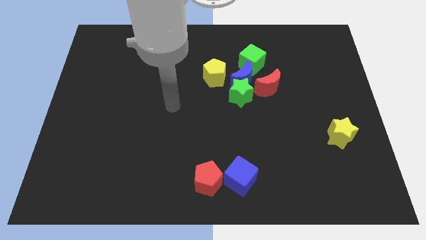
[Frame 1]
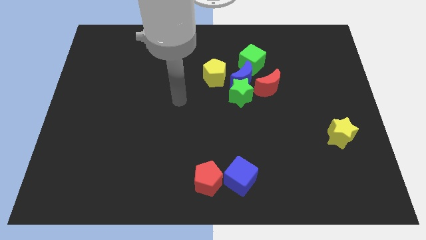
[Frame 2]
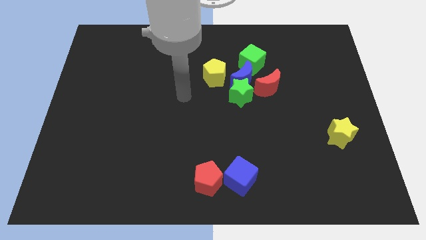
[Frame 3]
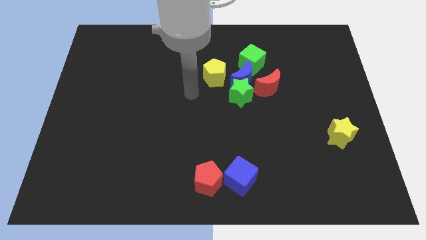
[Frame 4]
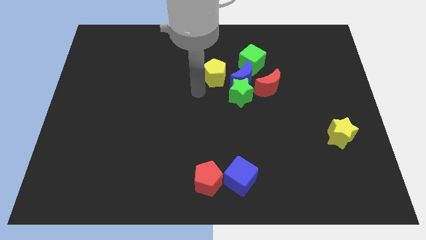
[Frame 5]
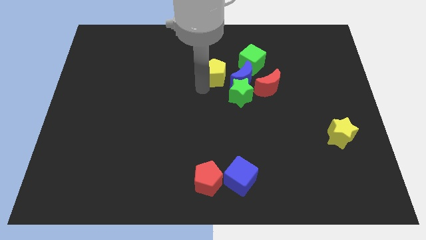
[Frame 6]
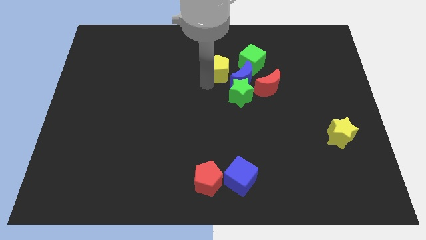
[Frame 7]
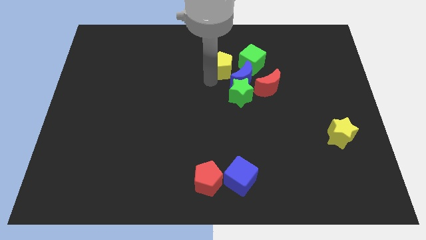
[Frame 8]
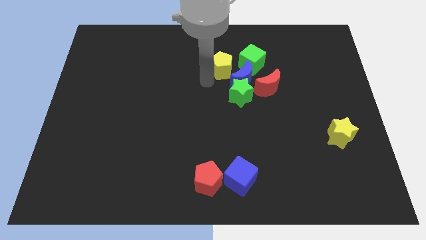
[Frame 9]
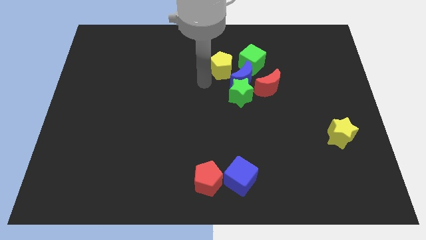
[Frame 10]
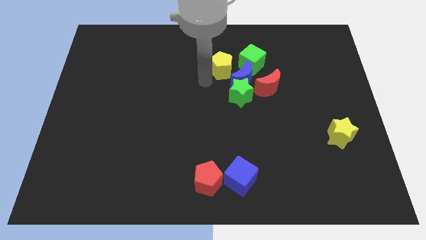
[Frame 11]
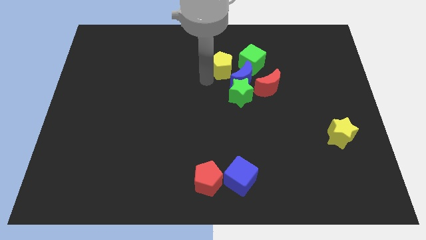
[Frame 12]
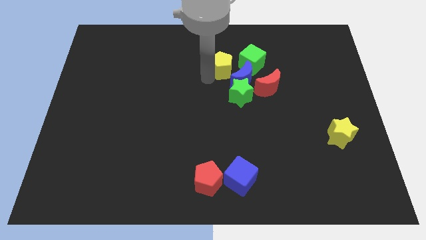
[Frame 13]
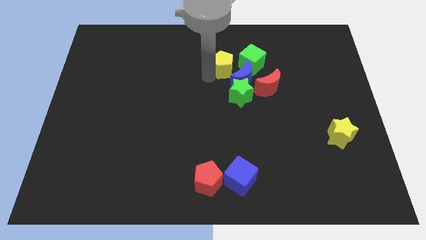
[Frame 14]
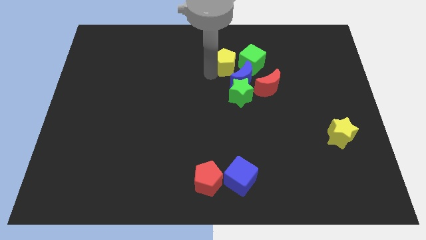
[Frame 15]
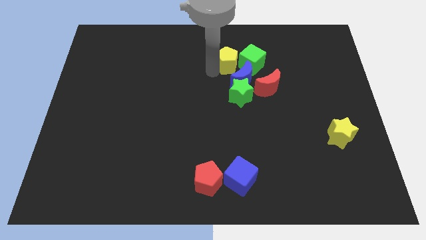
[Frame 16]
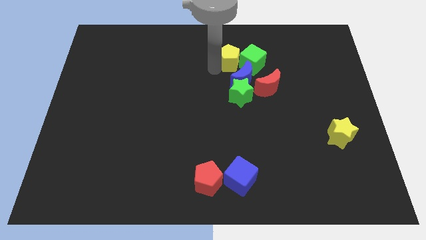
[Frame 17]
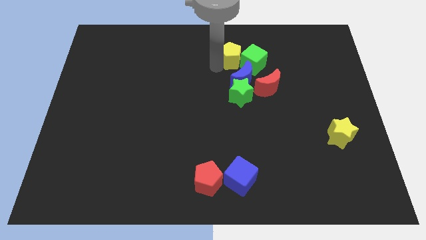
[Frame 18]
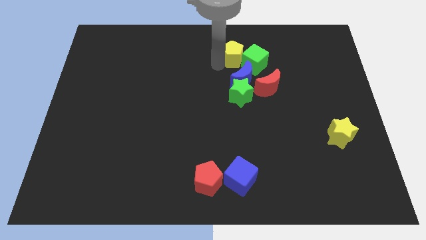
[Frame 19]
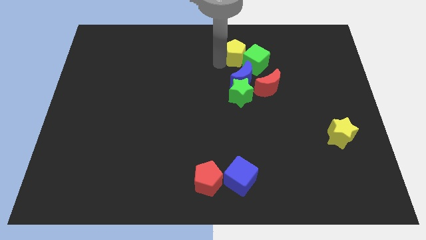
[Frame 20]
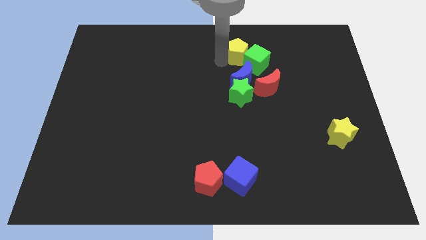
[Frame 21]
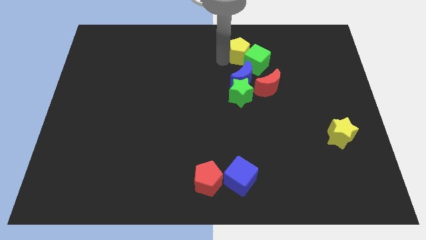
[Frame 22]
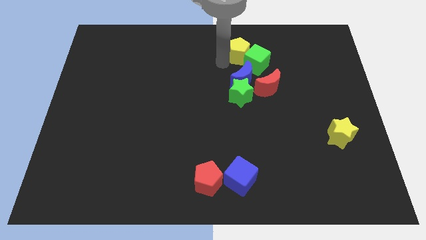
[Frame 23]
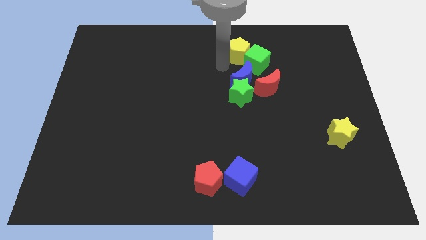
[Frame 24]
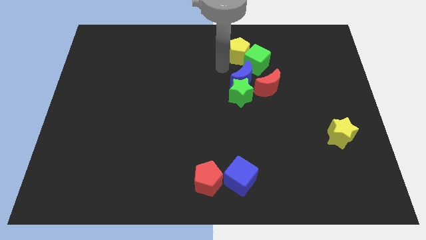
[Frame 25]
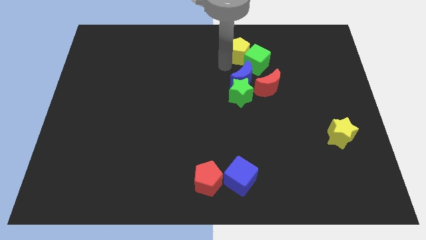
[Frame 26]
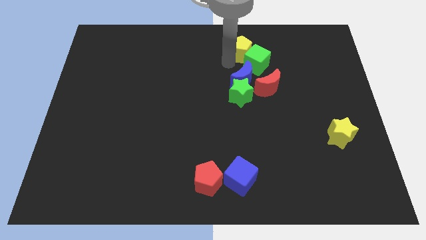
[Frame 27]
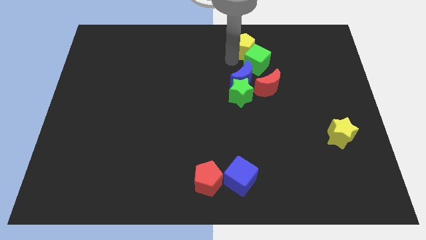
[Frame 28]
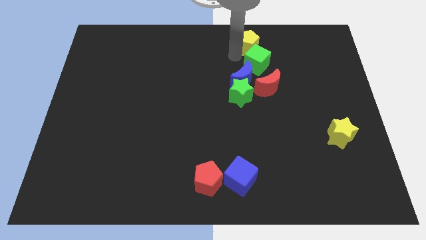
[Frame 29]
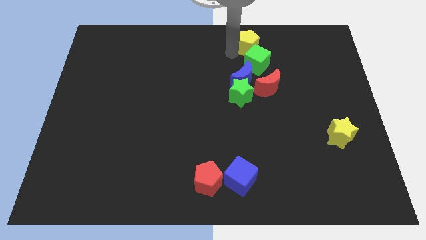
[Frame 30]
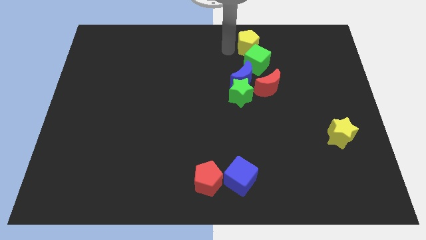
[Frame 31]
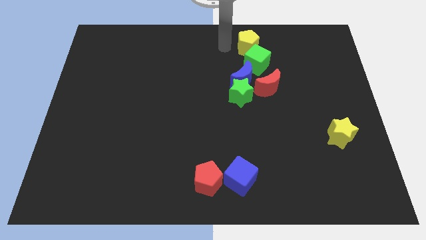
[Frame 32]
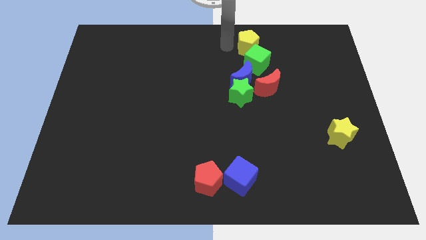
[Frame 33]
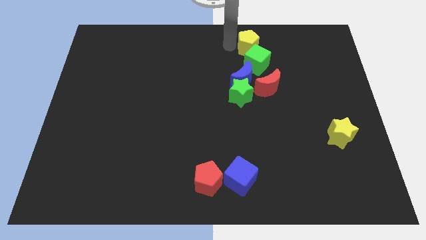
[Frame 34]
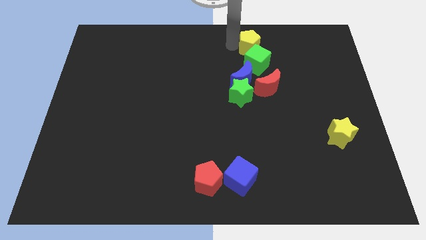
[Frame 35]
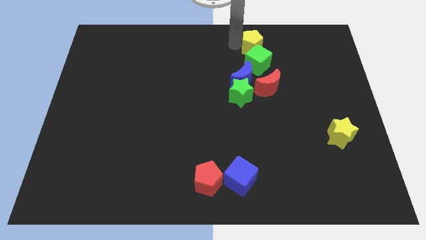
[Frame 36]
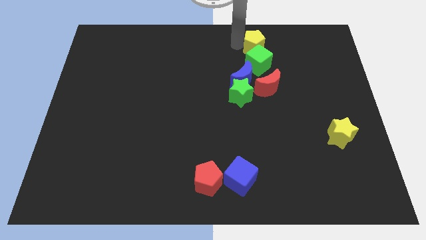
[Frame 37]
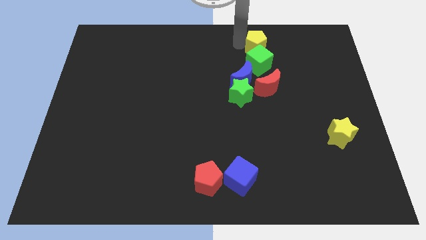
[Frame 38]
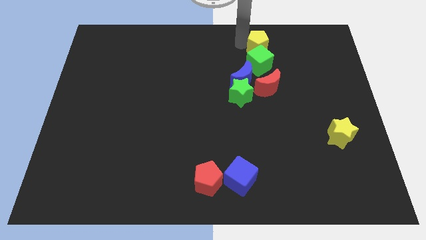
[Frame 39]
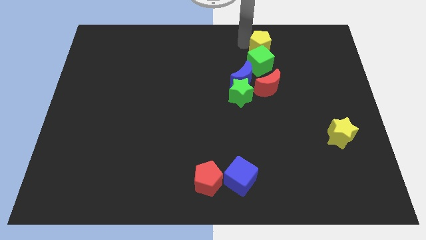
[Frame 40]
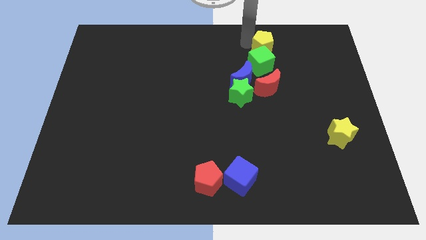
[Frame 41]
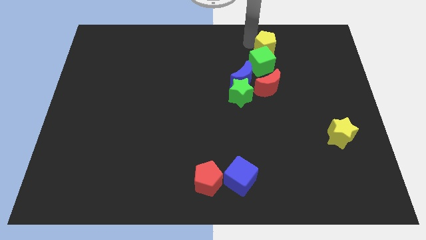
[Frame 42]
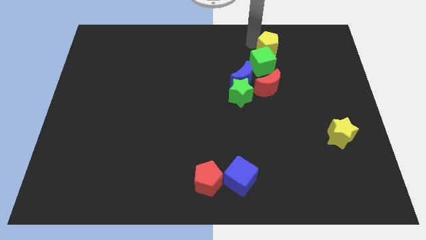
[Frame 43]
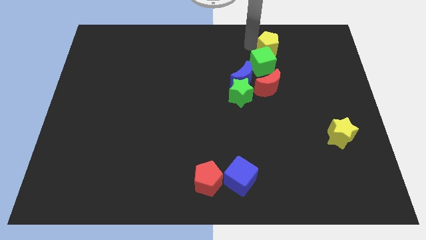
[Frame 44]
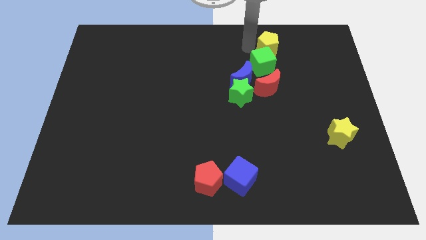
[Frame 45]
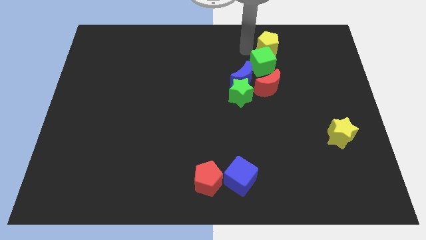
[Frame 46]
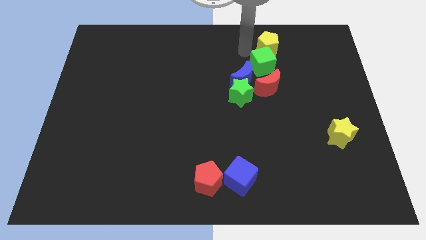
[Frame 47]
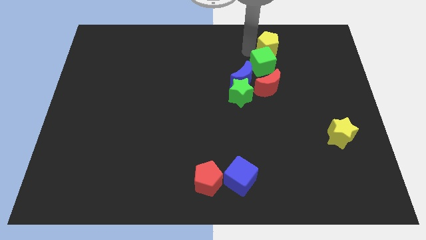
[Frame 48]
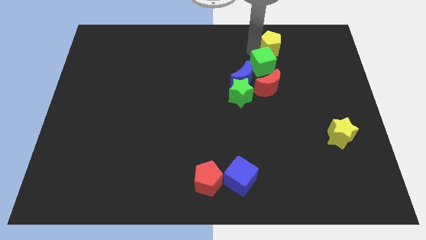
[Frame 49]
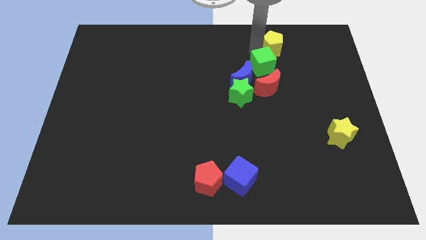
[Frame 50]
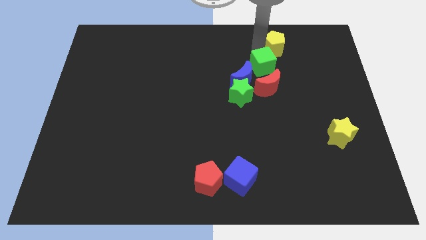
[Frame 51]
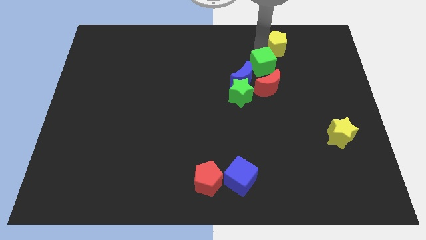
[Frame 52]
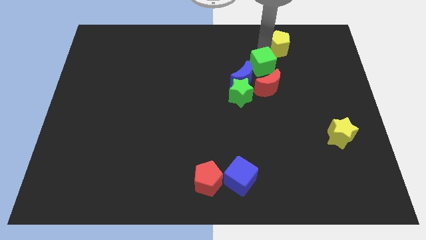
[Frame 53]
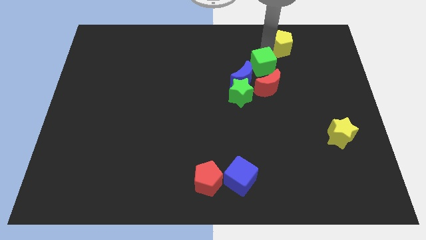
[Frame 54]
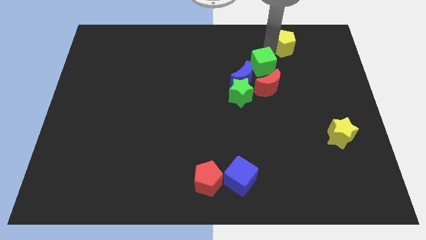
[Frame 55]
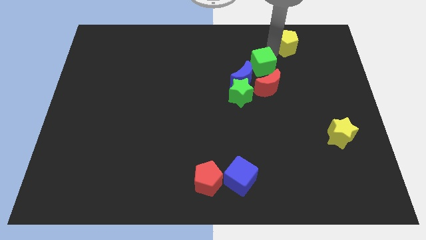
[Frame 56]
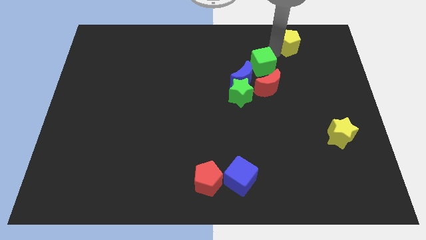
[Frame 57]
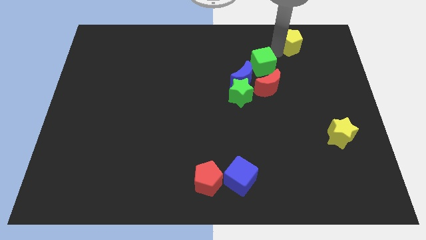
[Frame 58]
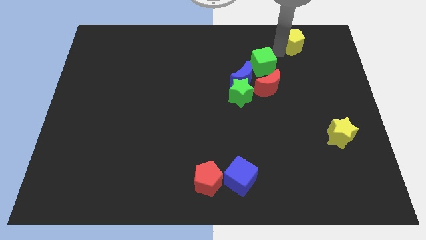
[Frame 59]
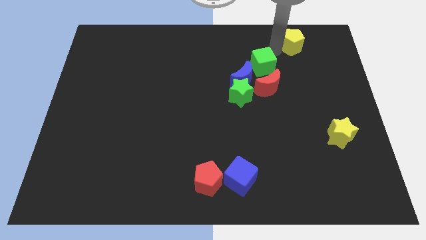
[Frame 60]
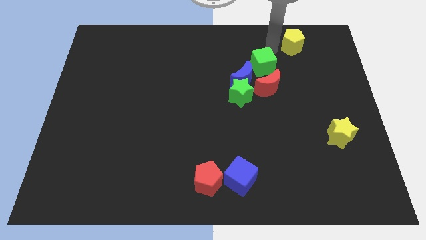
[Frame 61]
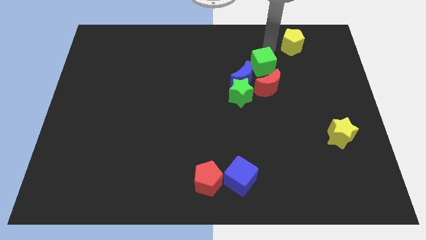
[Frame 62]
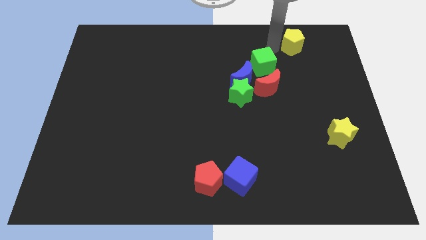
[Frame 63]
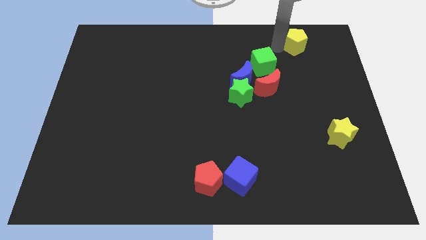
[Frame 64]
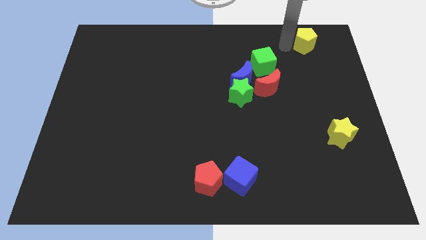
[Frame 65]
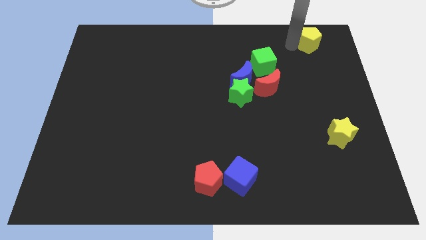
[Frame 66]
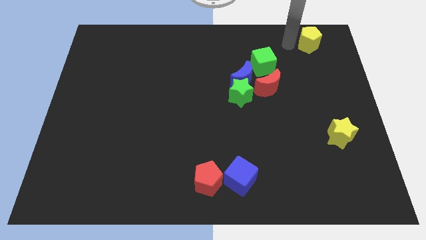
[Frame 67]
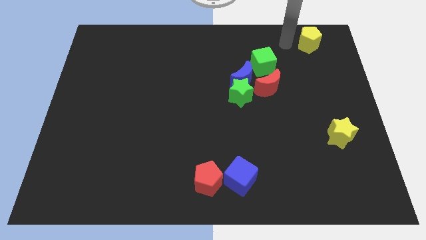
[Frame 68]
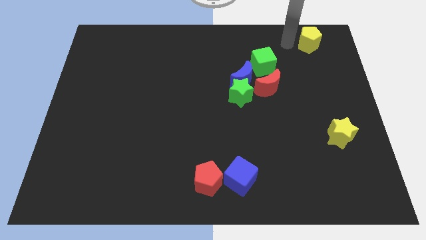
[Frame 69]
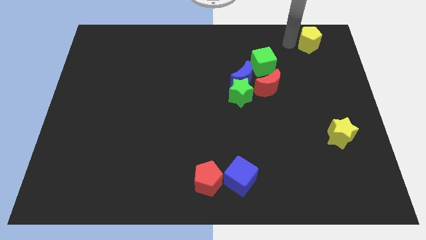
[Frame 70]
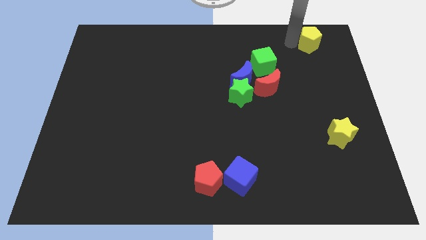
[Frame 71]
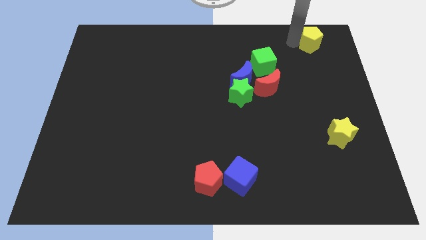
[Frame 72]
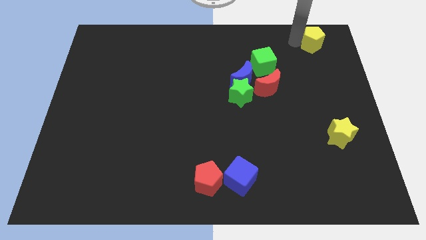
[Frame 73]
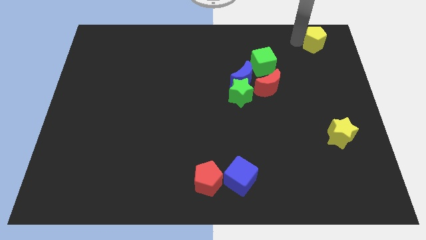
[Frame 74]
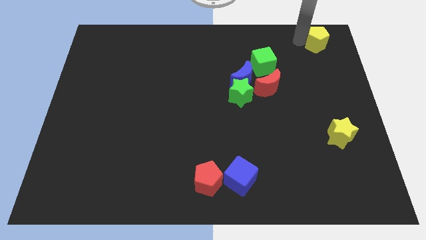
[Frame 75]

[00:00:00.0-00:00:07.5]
push the yellow pentagon to the top right
